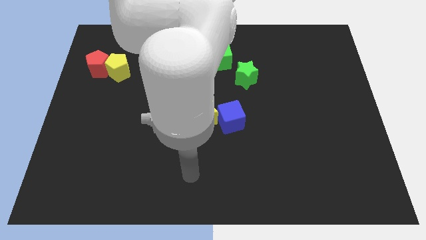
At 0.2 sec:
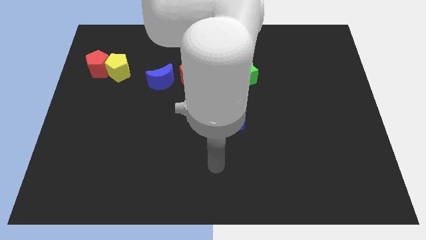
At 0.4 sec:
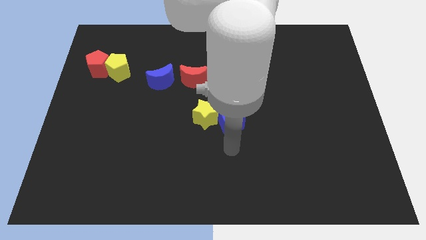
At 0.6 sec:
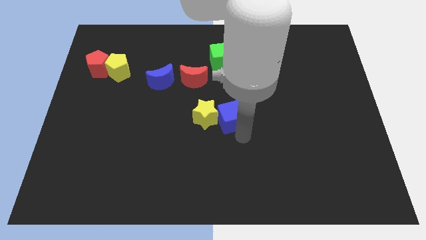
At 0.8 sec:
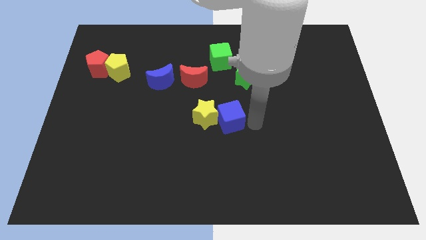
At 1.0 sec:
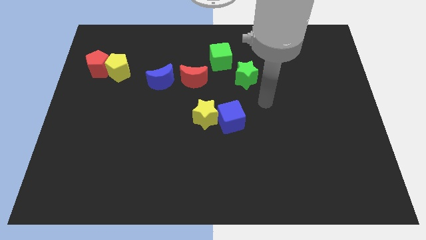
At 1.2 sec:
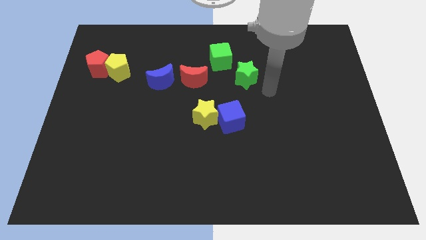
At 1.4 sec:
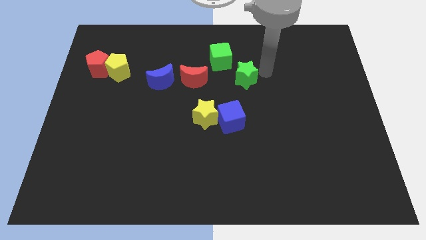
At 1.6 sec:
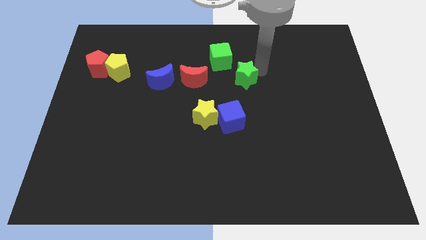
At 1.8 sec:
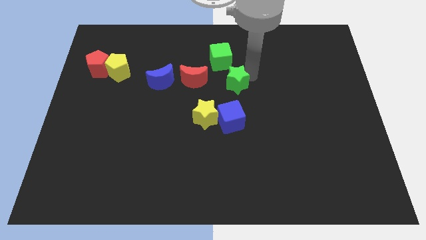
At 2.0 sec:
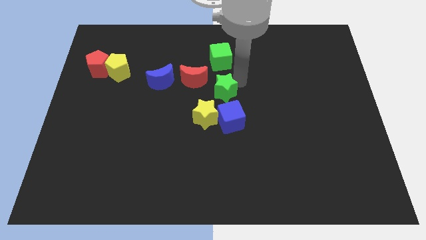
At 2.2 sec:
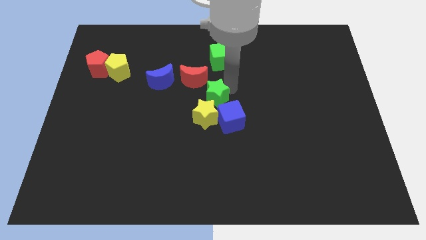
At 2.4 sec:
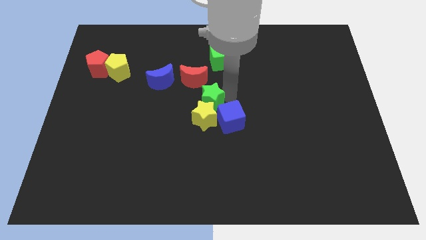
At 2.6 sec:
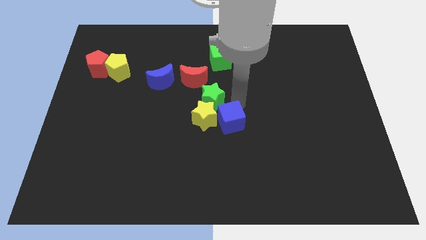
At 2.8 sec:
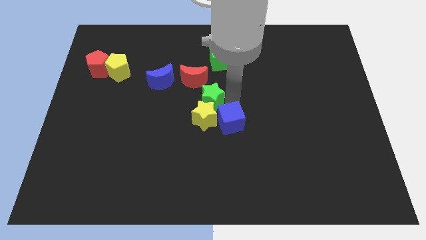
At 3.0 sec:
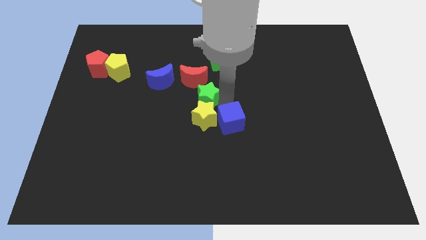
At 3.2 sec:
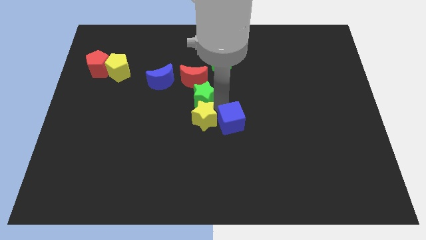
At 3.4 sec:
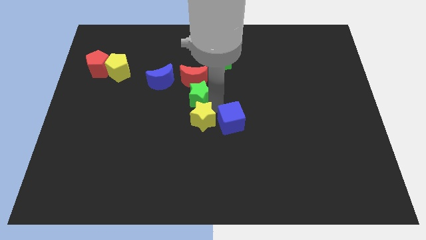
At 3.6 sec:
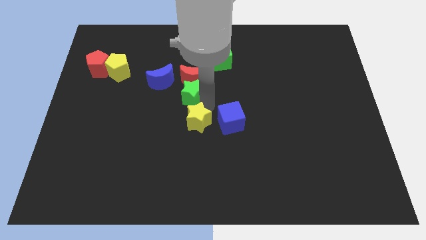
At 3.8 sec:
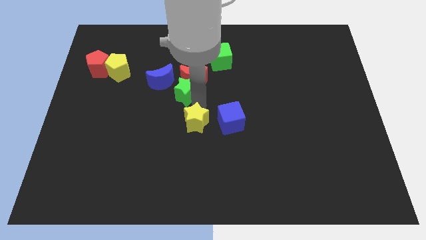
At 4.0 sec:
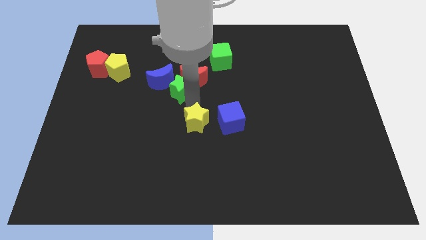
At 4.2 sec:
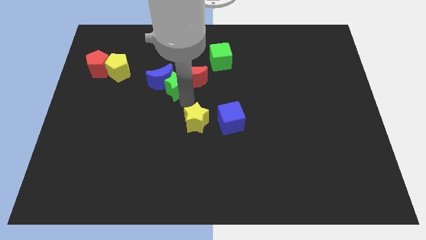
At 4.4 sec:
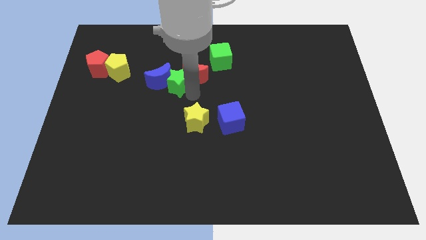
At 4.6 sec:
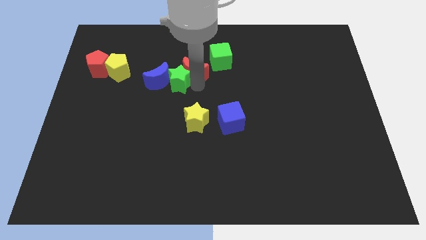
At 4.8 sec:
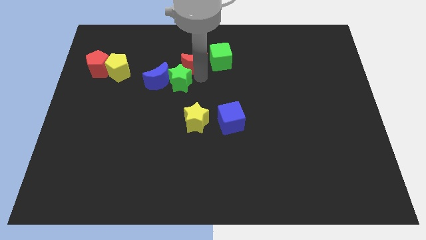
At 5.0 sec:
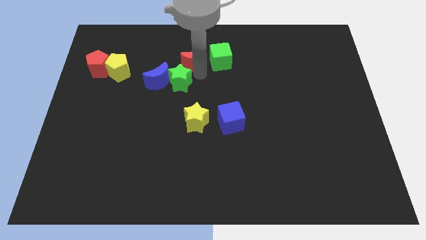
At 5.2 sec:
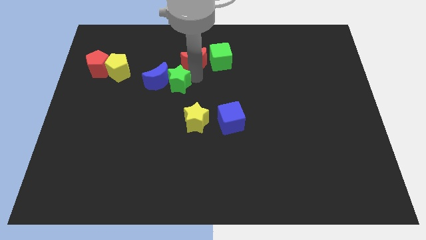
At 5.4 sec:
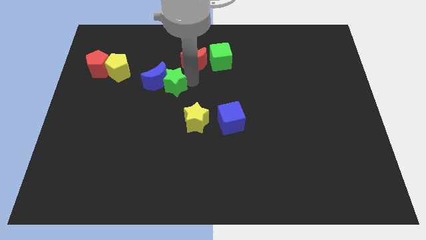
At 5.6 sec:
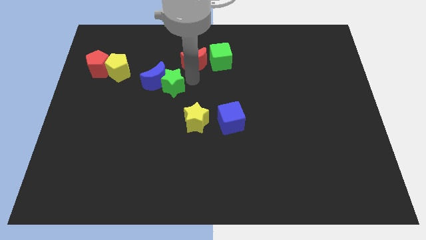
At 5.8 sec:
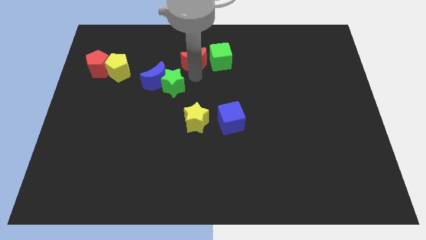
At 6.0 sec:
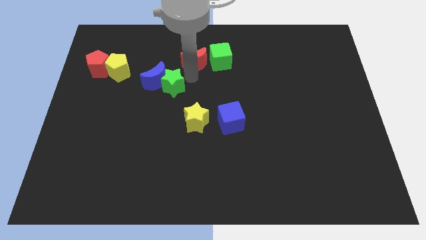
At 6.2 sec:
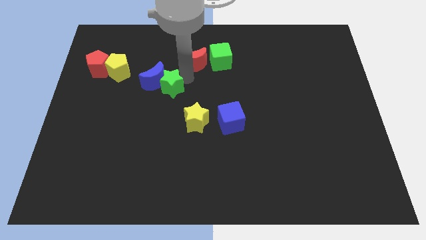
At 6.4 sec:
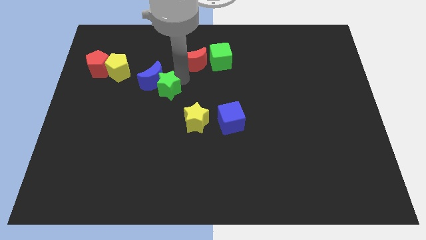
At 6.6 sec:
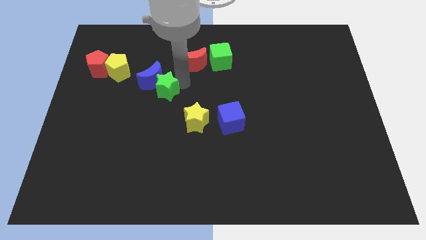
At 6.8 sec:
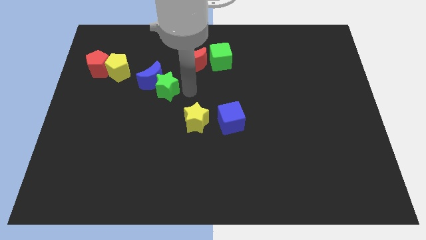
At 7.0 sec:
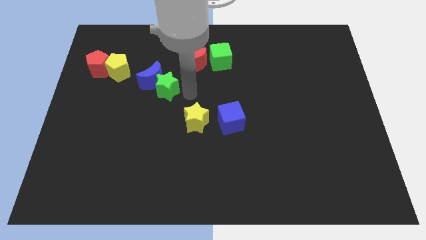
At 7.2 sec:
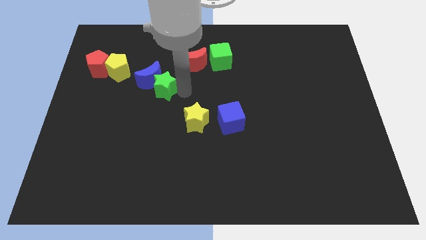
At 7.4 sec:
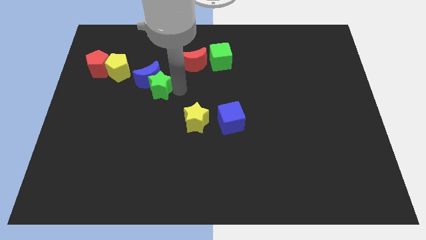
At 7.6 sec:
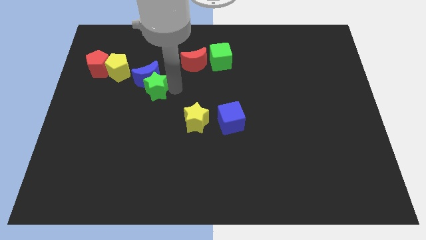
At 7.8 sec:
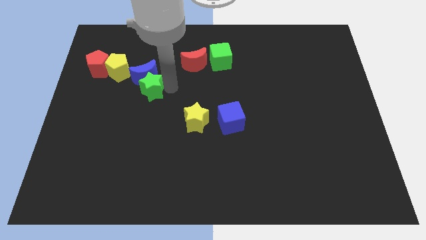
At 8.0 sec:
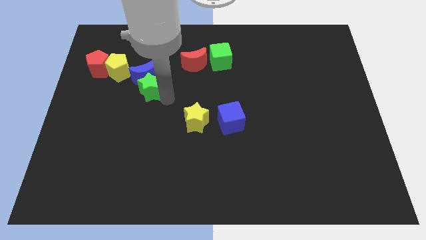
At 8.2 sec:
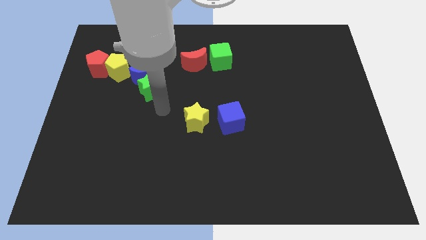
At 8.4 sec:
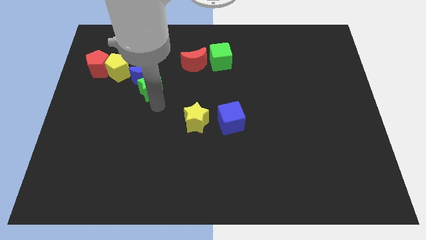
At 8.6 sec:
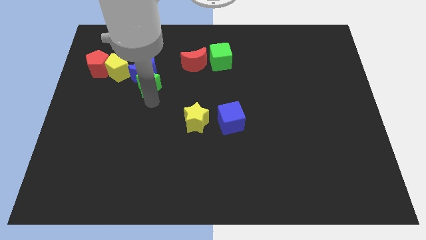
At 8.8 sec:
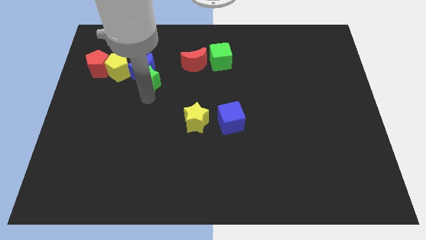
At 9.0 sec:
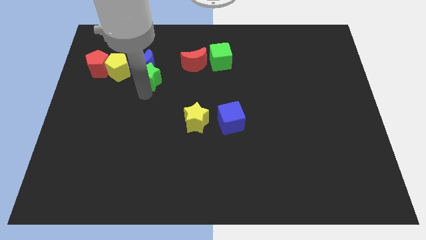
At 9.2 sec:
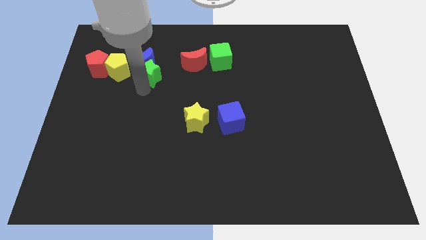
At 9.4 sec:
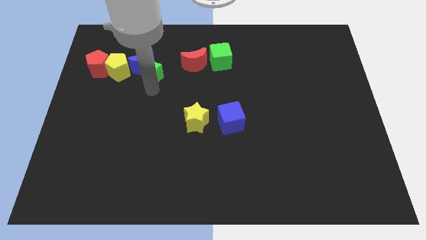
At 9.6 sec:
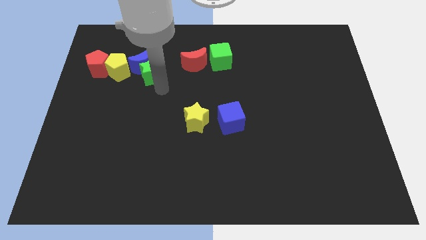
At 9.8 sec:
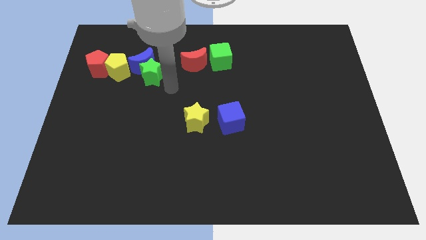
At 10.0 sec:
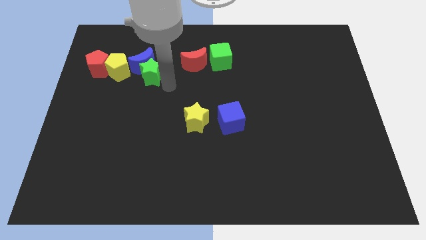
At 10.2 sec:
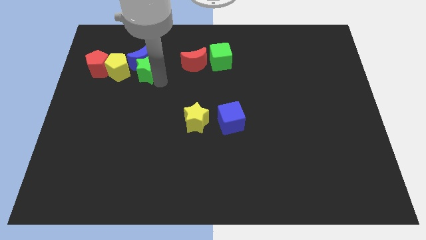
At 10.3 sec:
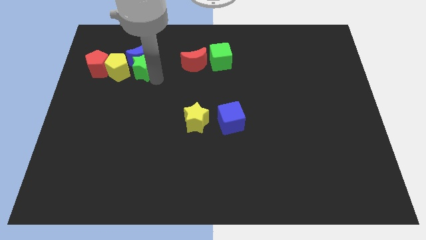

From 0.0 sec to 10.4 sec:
put the green star close to the yellow pentagon

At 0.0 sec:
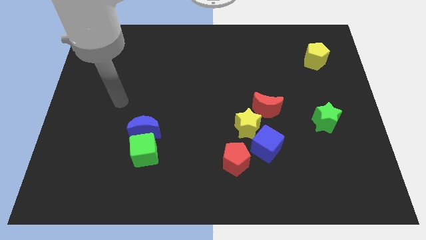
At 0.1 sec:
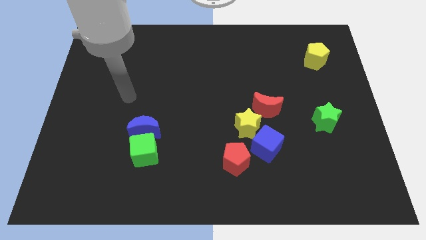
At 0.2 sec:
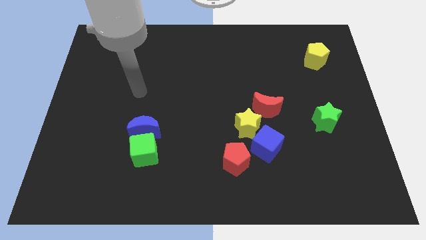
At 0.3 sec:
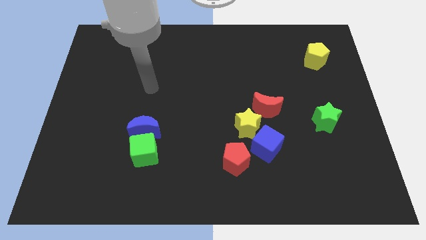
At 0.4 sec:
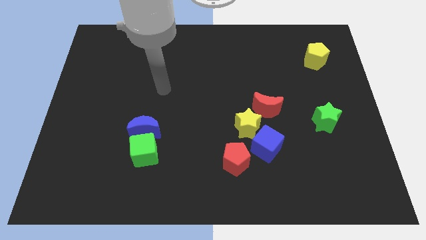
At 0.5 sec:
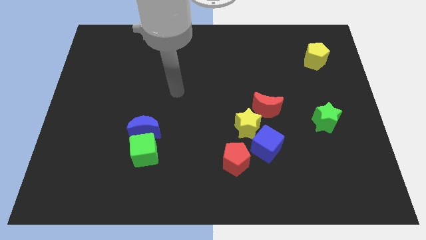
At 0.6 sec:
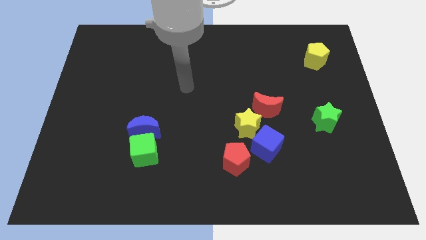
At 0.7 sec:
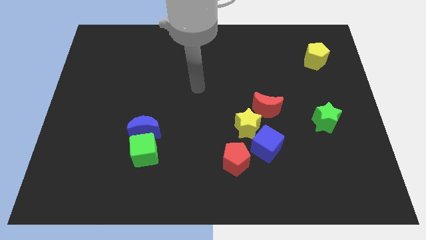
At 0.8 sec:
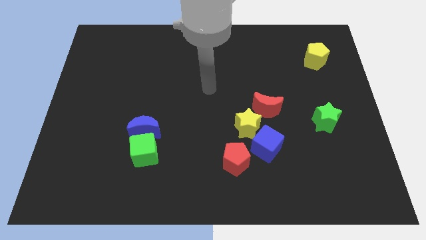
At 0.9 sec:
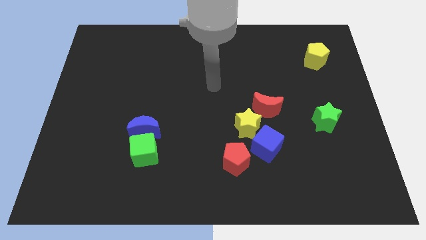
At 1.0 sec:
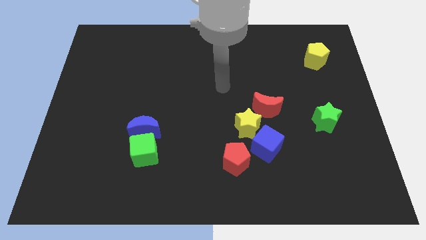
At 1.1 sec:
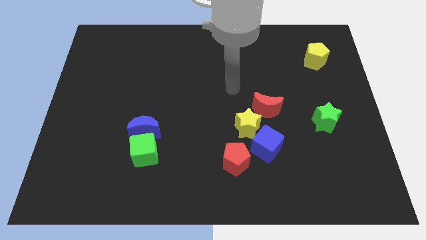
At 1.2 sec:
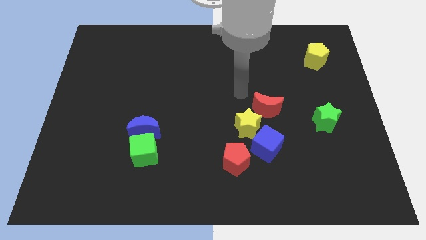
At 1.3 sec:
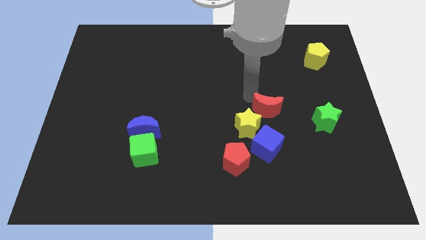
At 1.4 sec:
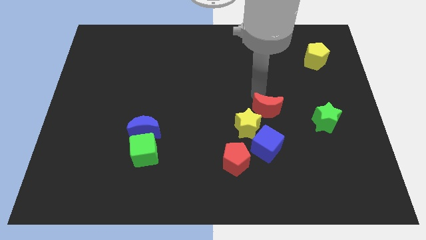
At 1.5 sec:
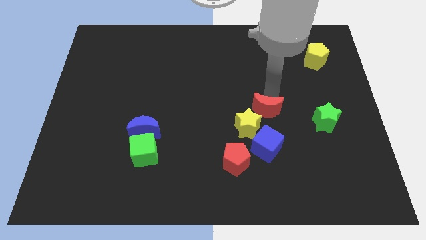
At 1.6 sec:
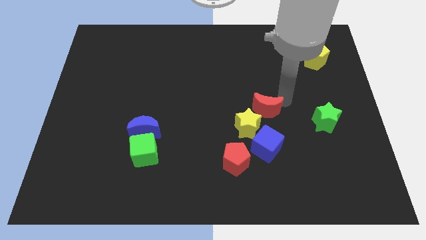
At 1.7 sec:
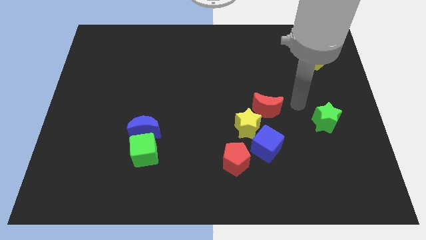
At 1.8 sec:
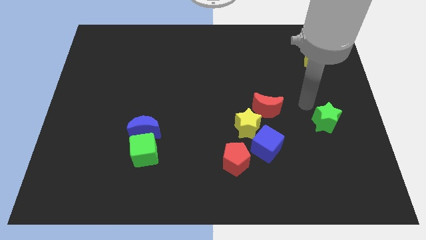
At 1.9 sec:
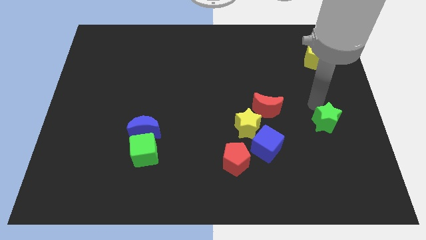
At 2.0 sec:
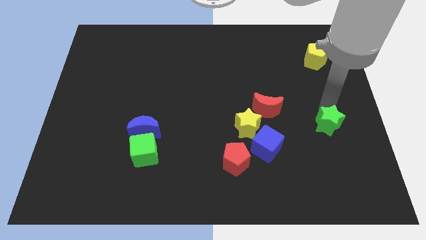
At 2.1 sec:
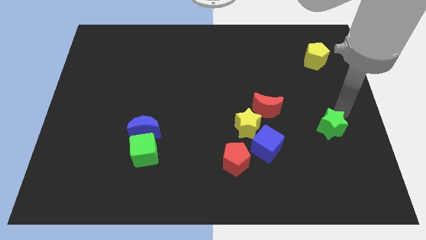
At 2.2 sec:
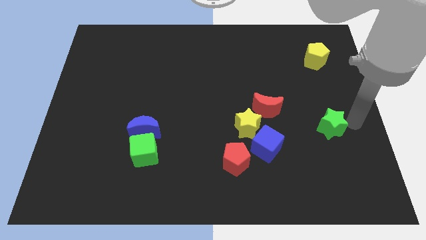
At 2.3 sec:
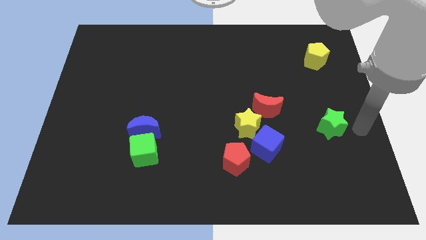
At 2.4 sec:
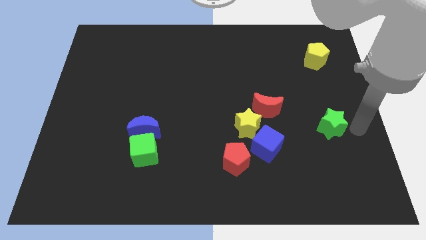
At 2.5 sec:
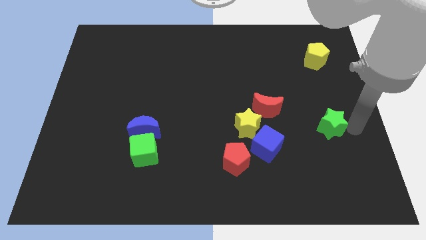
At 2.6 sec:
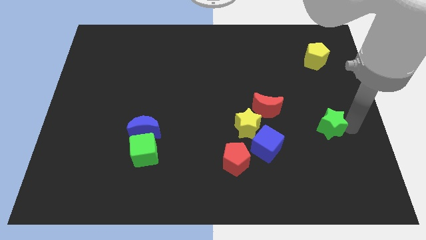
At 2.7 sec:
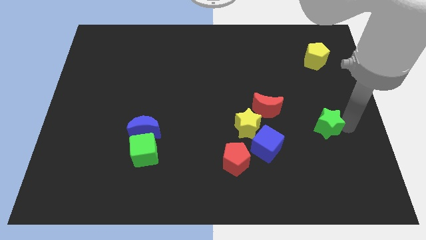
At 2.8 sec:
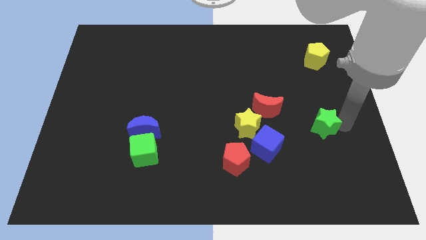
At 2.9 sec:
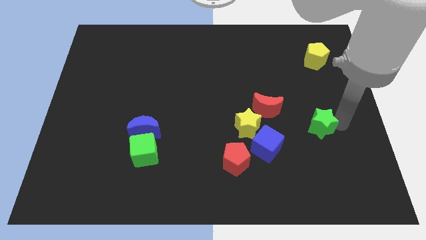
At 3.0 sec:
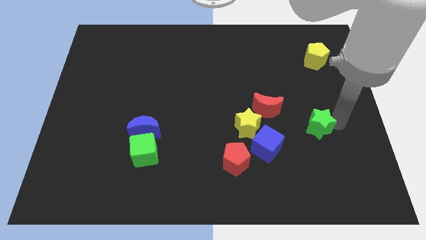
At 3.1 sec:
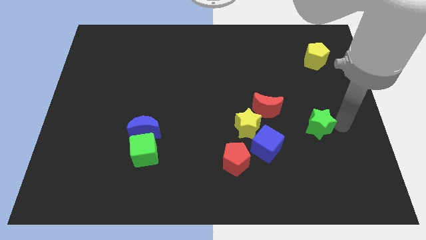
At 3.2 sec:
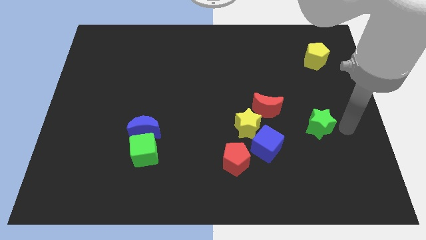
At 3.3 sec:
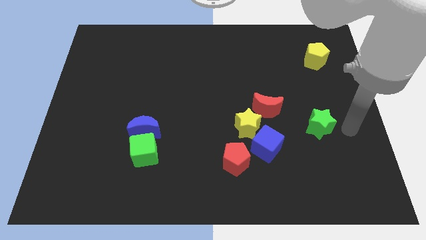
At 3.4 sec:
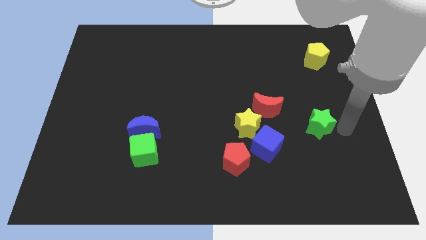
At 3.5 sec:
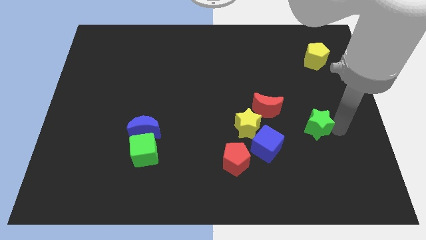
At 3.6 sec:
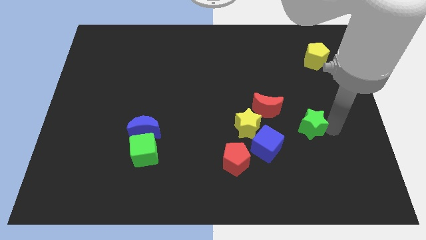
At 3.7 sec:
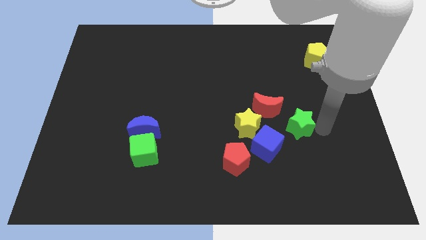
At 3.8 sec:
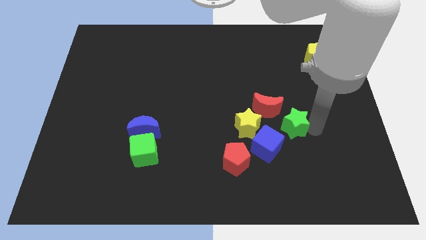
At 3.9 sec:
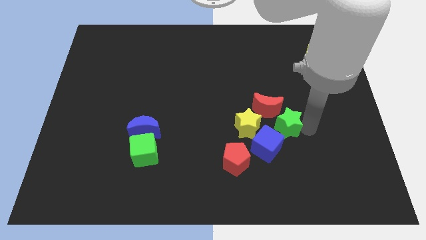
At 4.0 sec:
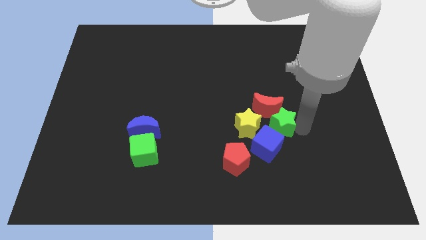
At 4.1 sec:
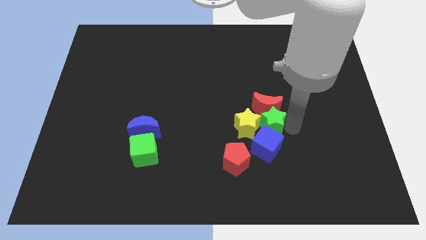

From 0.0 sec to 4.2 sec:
slide the green star next to the yellow star
